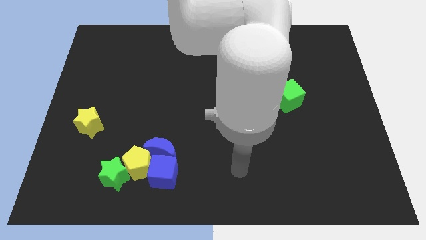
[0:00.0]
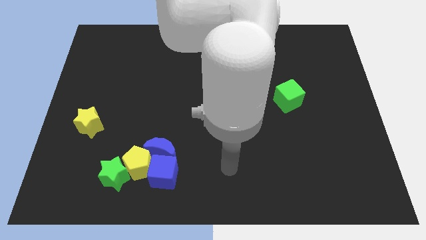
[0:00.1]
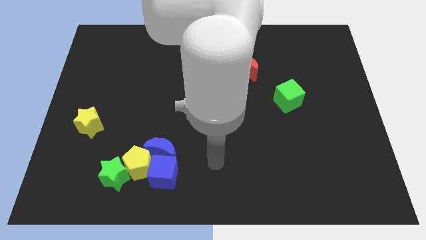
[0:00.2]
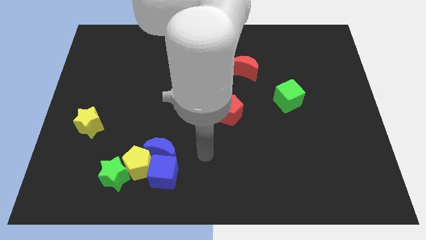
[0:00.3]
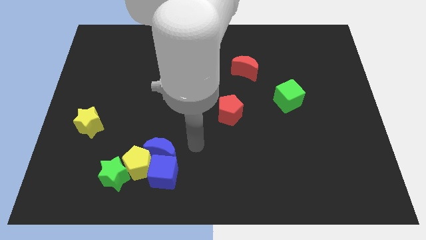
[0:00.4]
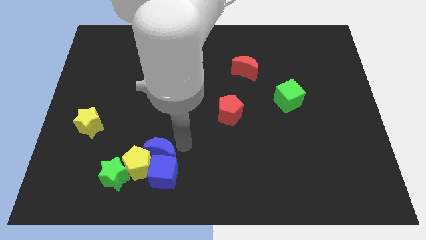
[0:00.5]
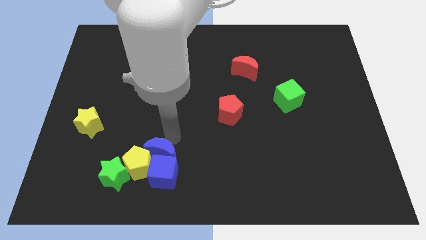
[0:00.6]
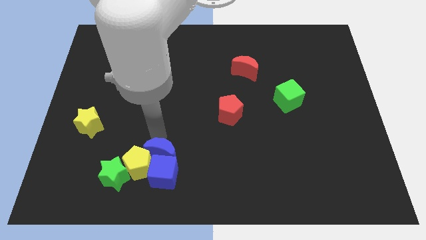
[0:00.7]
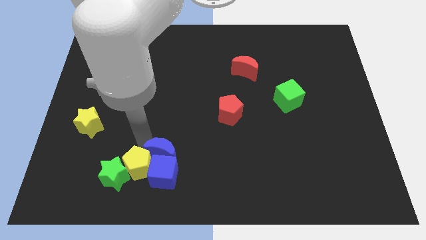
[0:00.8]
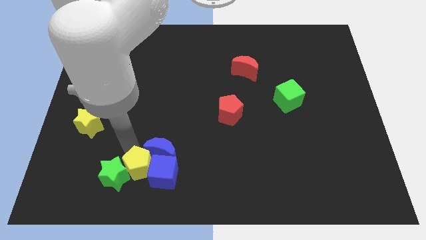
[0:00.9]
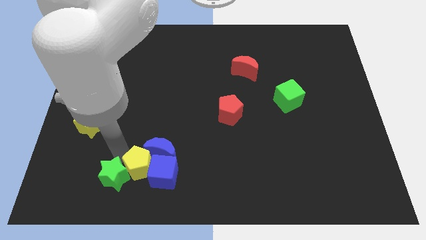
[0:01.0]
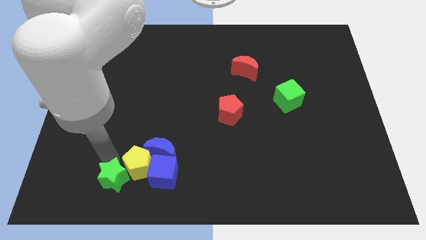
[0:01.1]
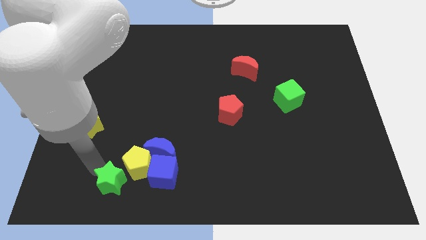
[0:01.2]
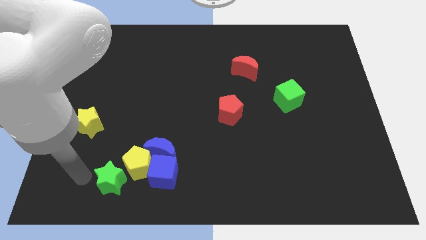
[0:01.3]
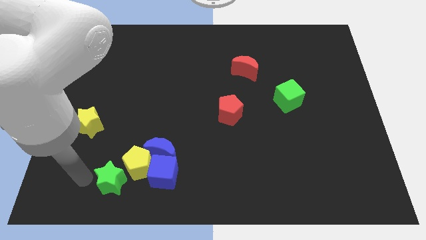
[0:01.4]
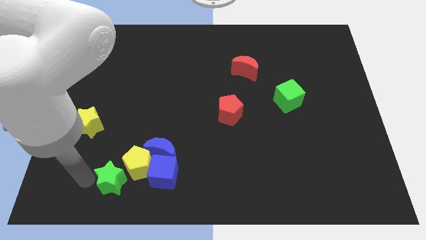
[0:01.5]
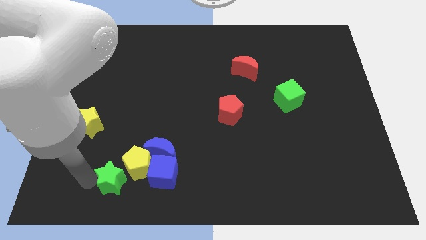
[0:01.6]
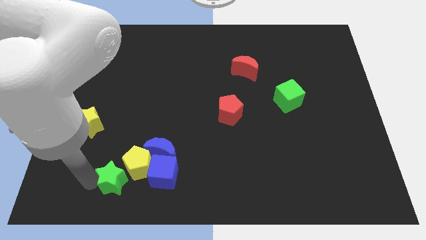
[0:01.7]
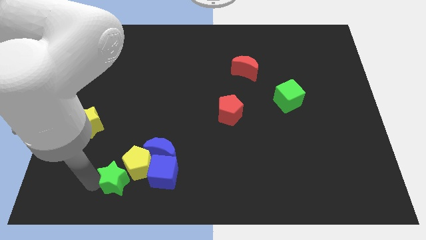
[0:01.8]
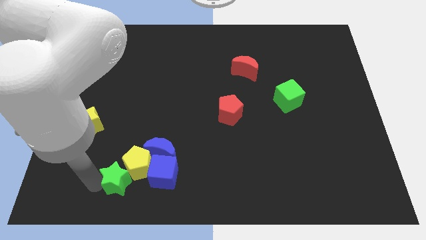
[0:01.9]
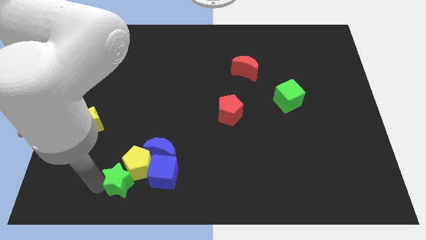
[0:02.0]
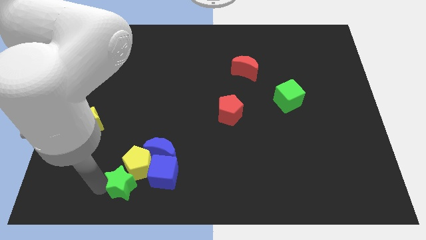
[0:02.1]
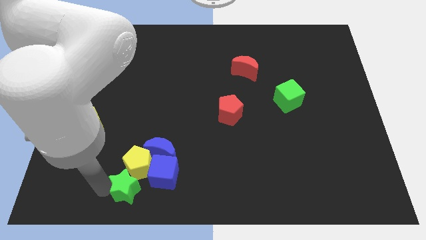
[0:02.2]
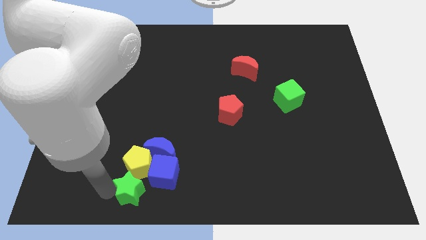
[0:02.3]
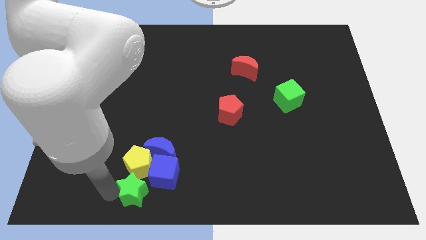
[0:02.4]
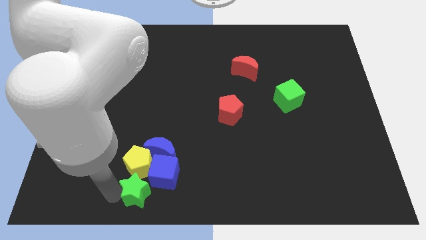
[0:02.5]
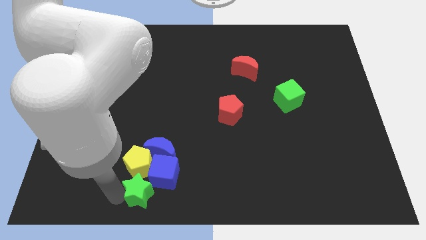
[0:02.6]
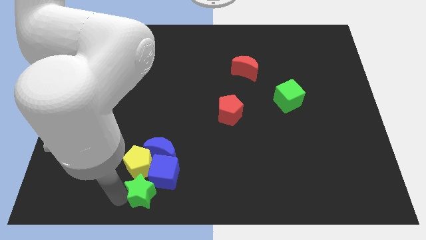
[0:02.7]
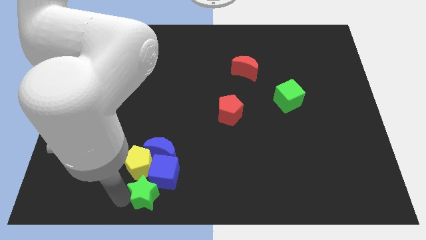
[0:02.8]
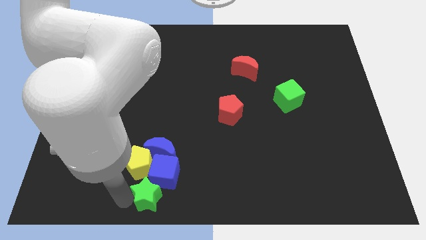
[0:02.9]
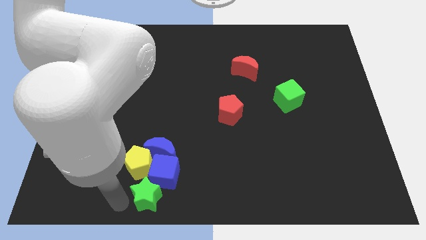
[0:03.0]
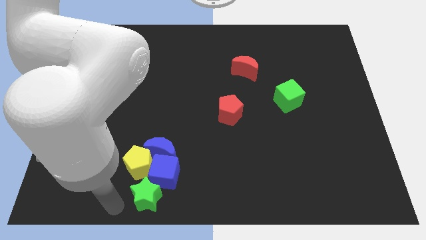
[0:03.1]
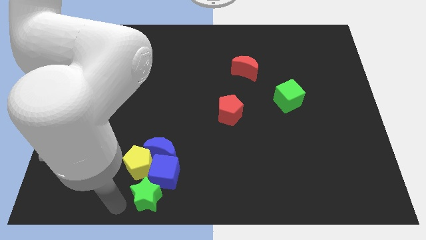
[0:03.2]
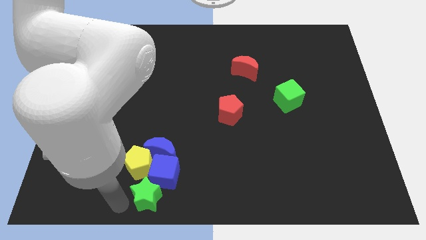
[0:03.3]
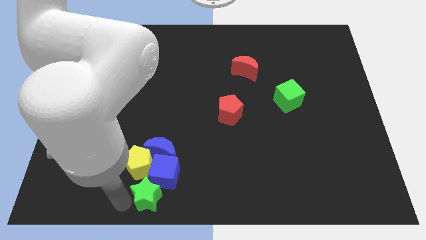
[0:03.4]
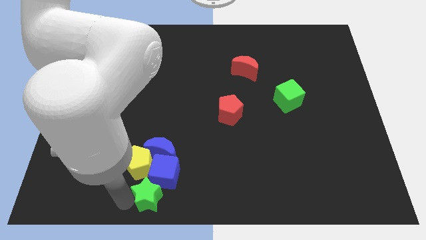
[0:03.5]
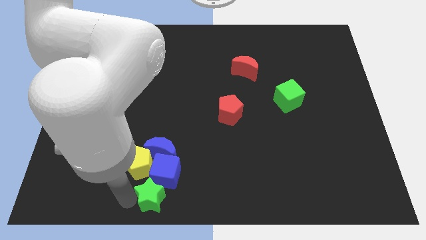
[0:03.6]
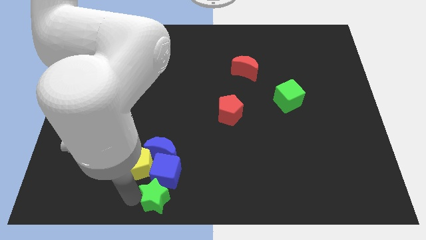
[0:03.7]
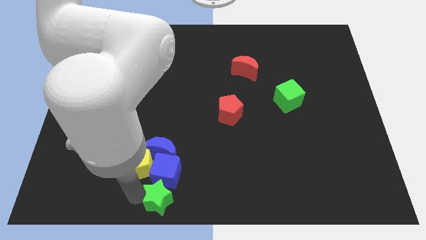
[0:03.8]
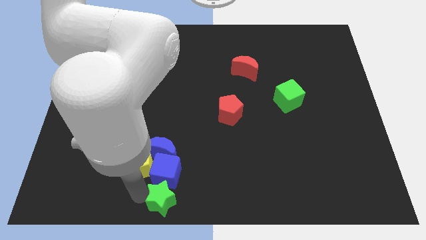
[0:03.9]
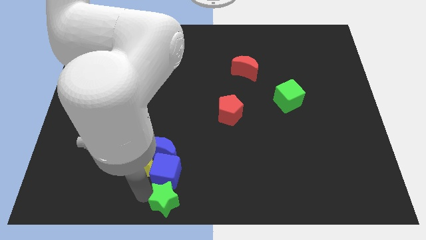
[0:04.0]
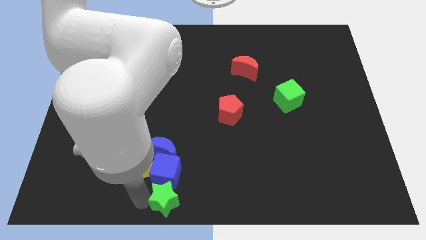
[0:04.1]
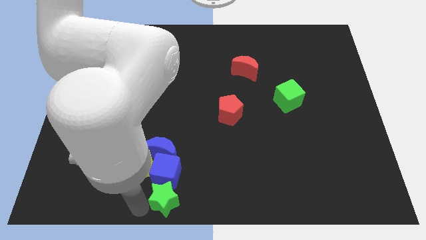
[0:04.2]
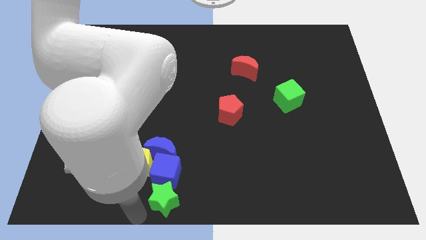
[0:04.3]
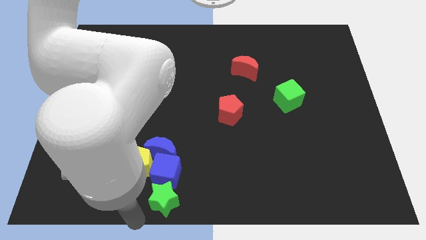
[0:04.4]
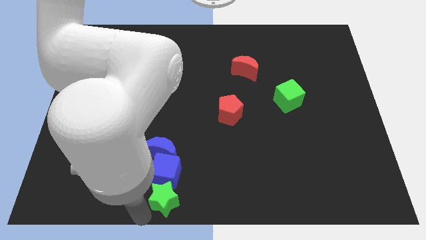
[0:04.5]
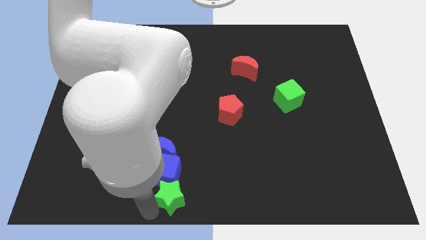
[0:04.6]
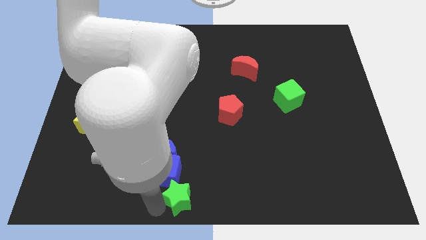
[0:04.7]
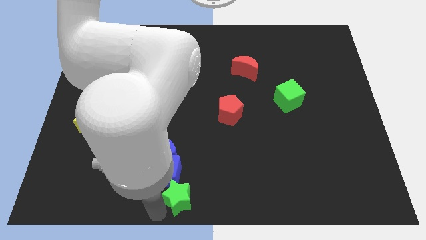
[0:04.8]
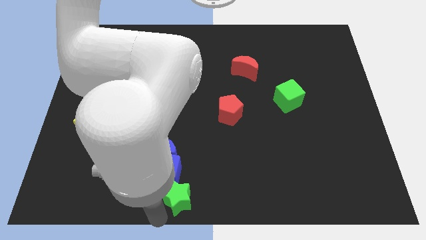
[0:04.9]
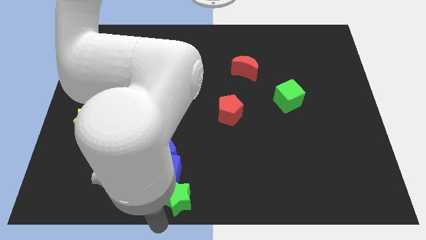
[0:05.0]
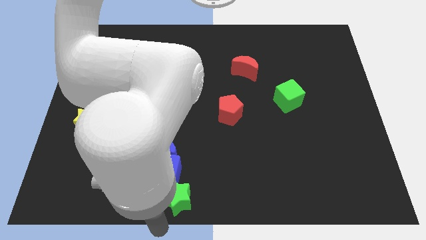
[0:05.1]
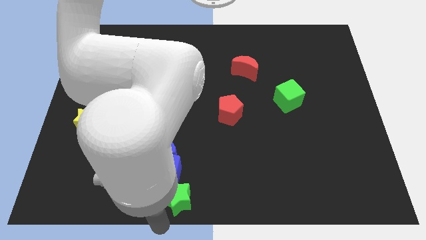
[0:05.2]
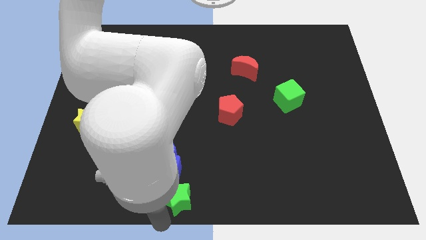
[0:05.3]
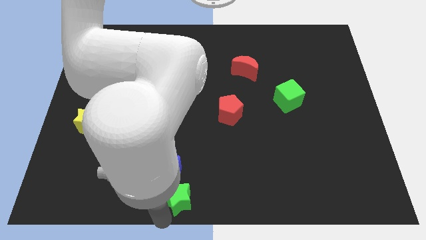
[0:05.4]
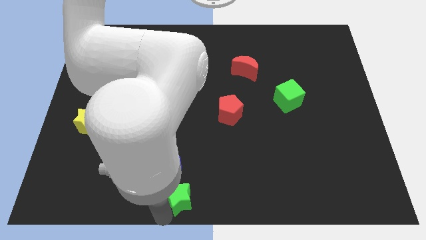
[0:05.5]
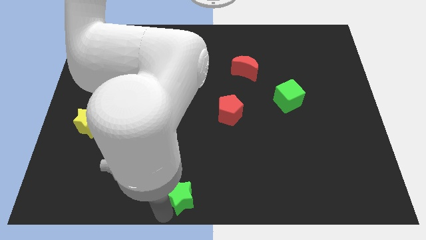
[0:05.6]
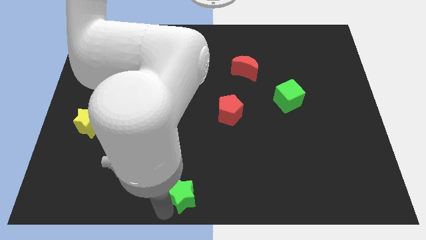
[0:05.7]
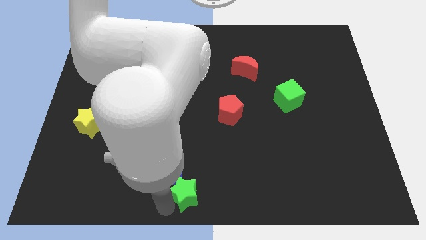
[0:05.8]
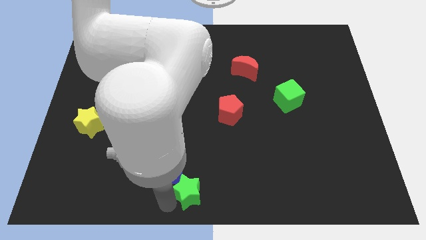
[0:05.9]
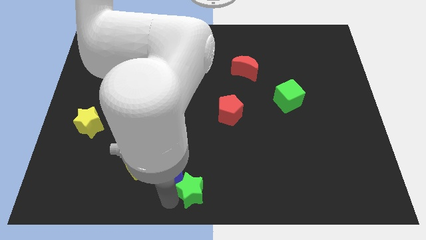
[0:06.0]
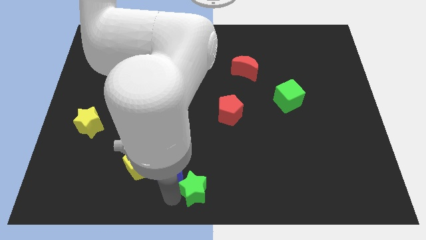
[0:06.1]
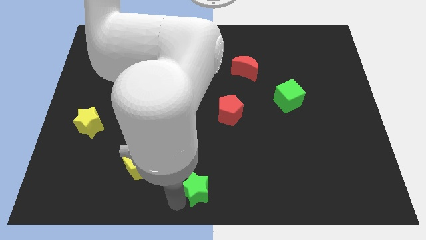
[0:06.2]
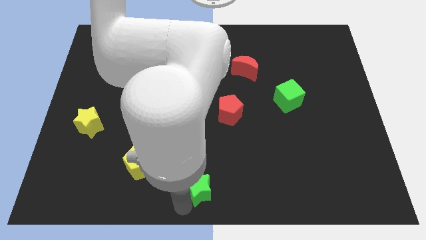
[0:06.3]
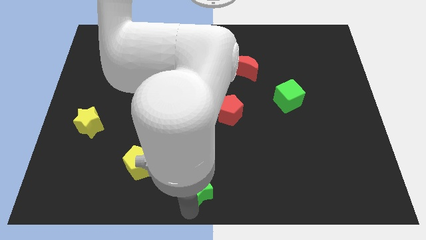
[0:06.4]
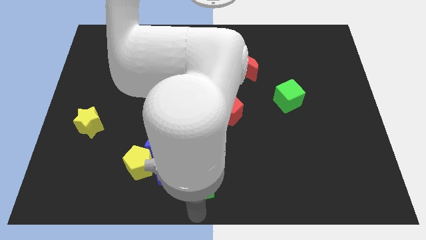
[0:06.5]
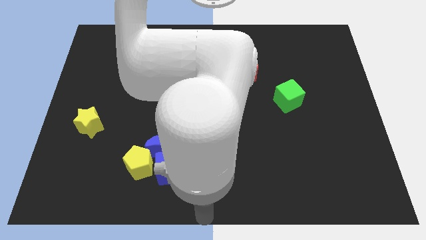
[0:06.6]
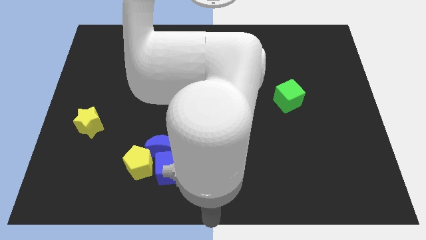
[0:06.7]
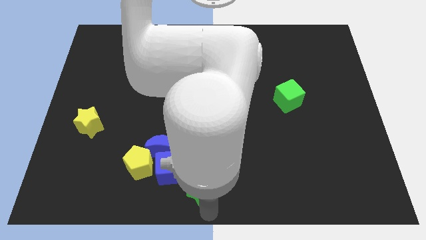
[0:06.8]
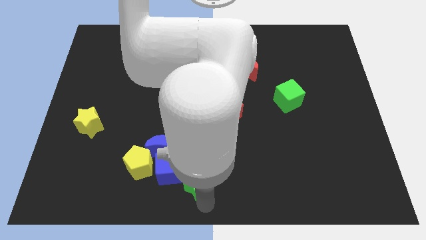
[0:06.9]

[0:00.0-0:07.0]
push the green star right of the yellow pentagon
